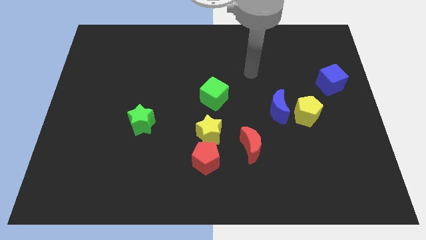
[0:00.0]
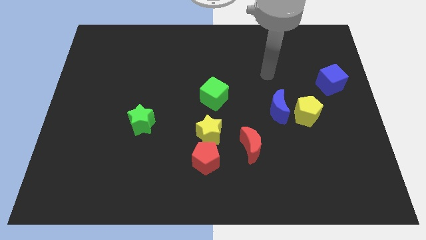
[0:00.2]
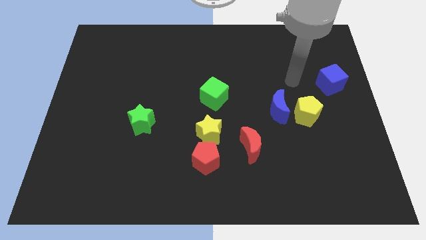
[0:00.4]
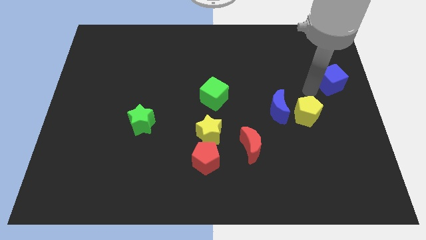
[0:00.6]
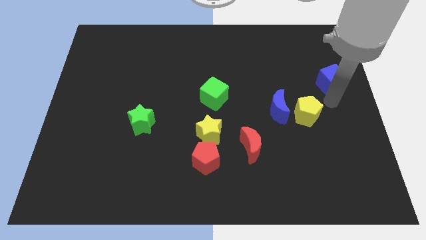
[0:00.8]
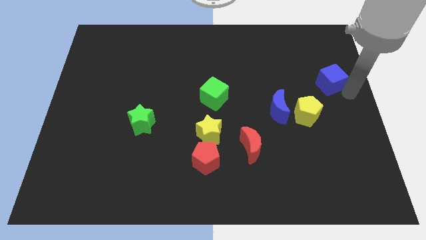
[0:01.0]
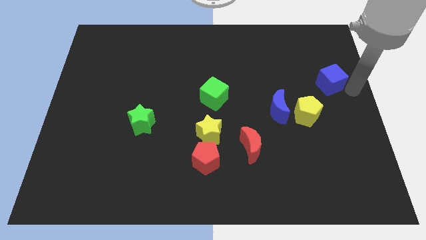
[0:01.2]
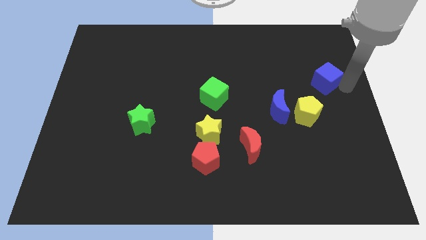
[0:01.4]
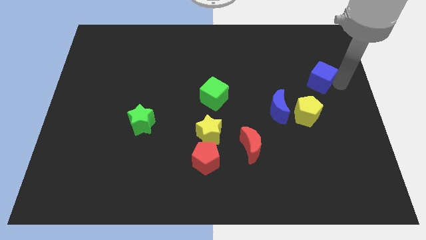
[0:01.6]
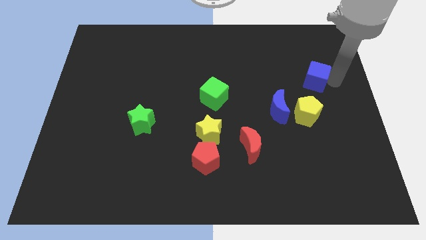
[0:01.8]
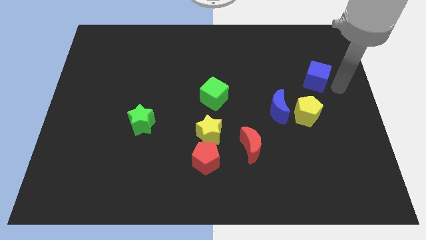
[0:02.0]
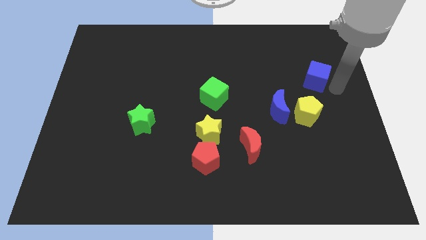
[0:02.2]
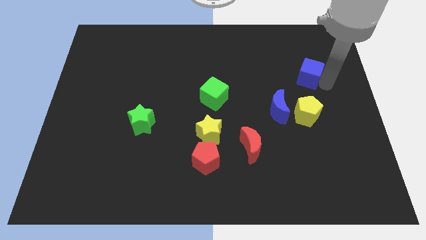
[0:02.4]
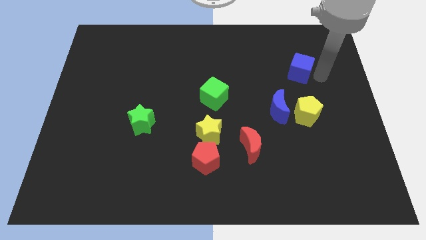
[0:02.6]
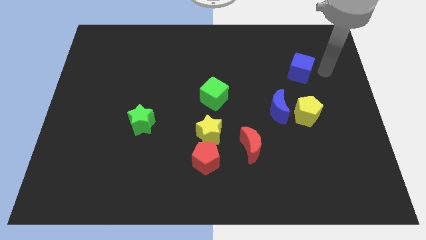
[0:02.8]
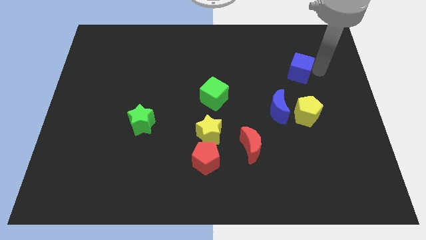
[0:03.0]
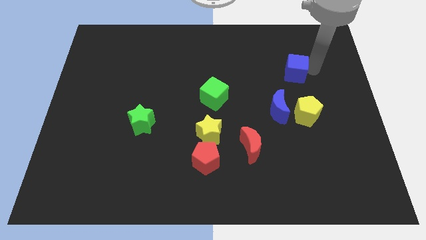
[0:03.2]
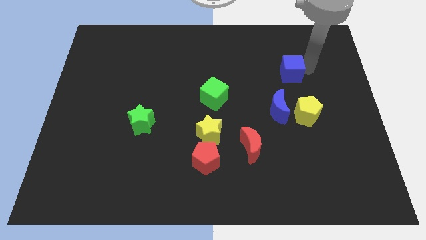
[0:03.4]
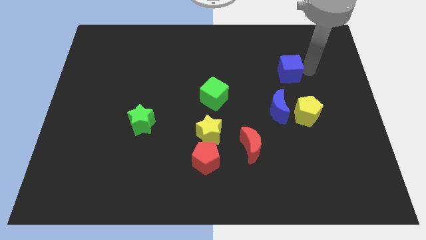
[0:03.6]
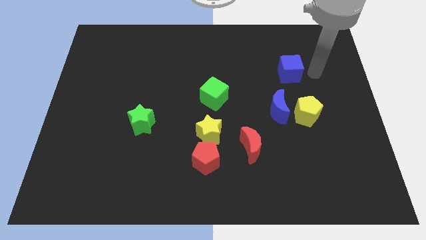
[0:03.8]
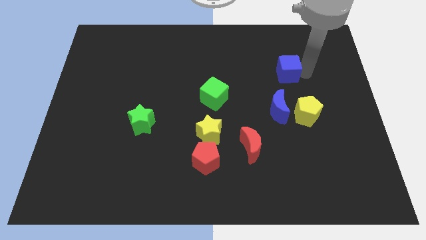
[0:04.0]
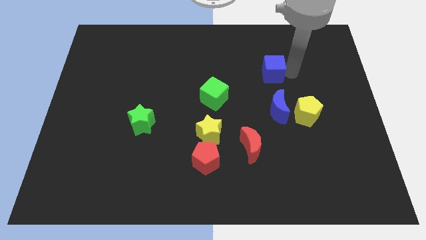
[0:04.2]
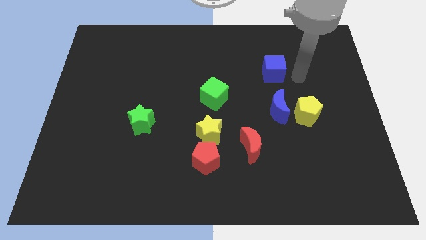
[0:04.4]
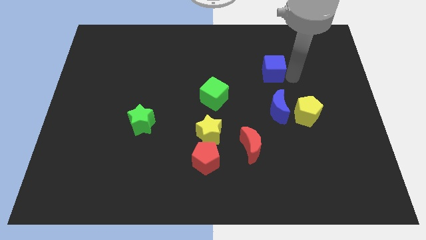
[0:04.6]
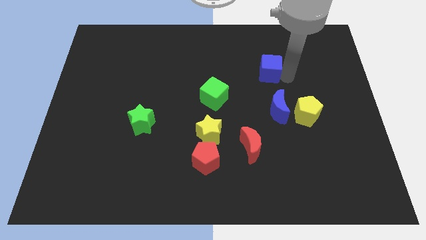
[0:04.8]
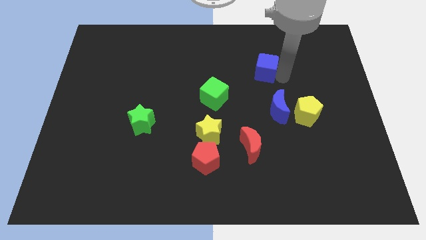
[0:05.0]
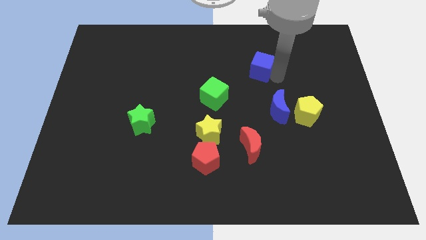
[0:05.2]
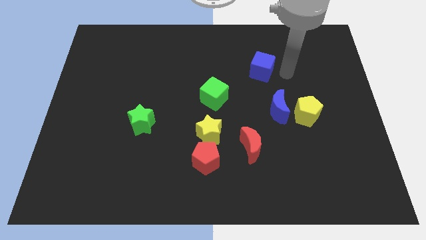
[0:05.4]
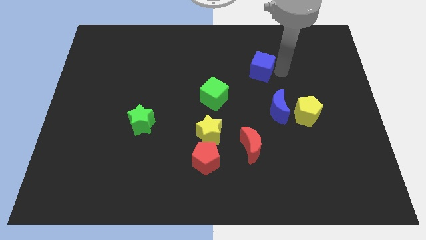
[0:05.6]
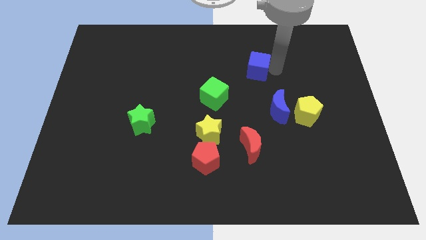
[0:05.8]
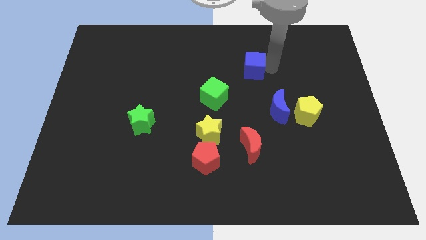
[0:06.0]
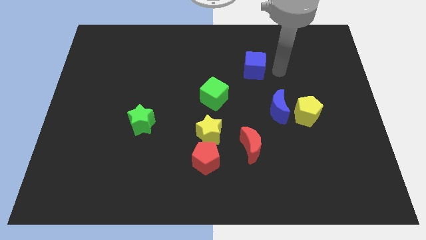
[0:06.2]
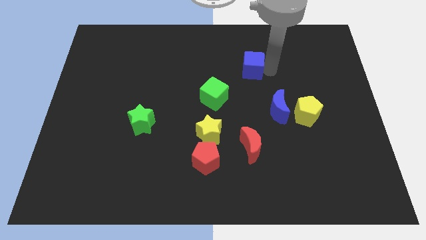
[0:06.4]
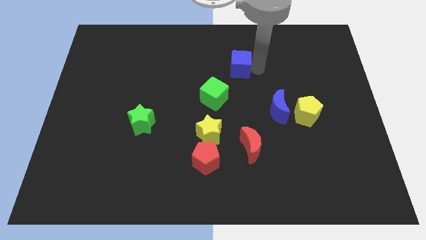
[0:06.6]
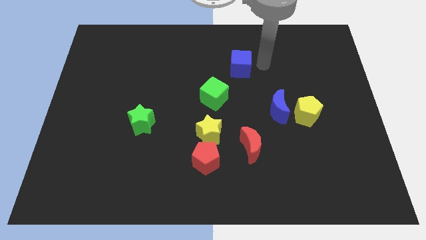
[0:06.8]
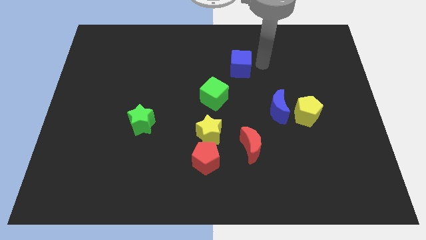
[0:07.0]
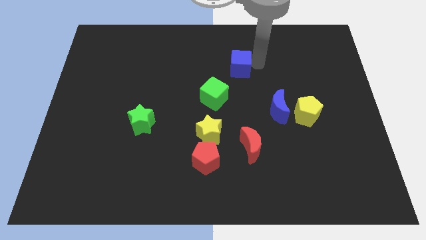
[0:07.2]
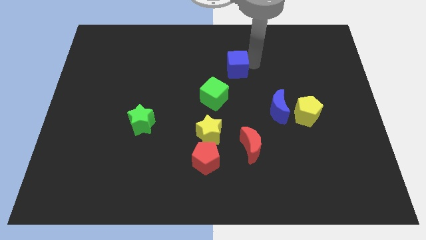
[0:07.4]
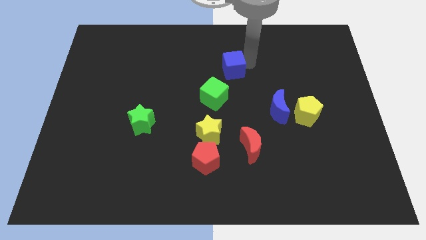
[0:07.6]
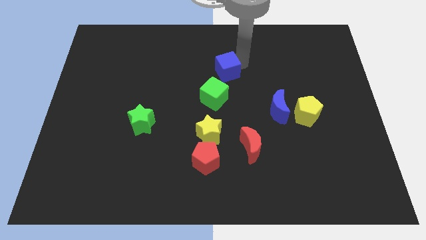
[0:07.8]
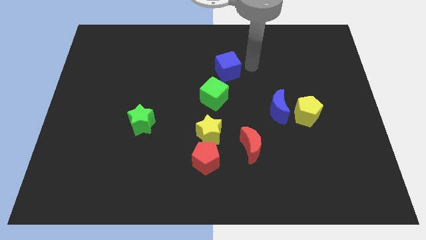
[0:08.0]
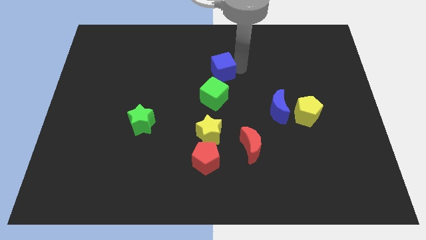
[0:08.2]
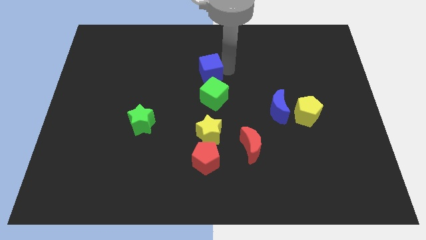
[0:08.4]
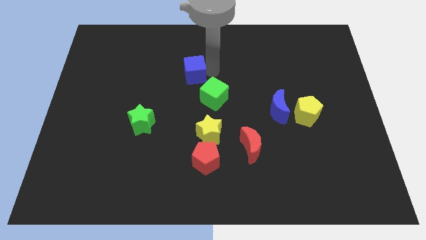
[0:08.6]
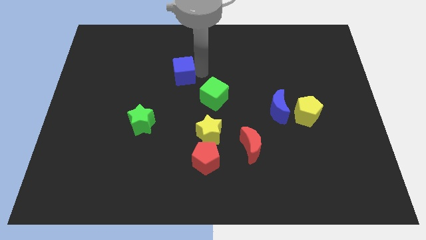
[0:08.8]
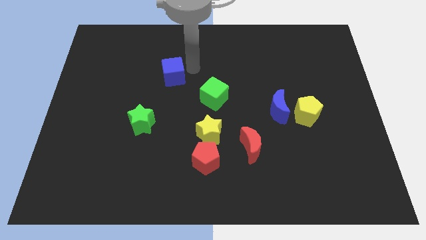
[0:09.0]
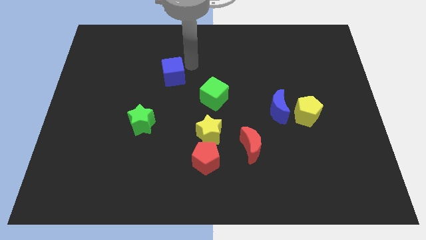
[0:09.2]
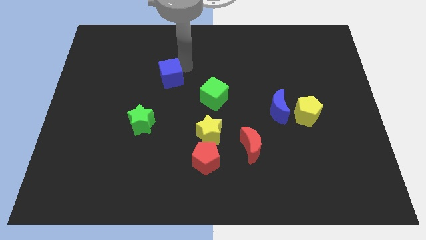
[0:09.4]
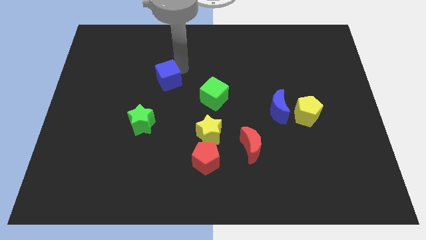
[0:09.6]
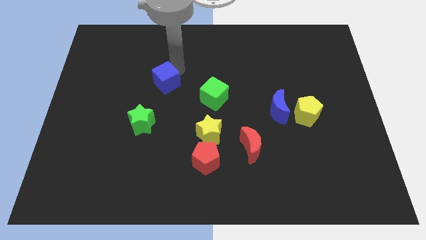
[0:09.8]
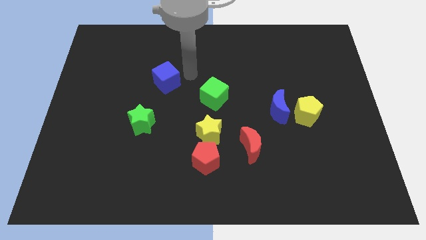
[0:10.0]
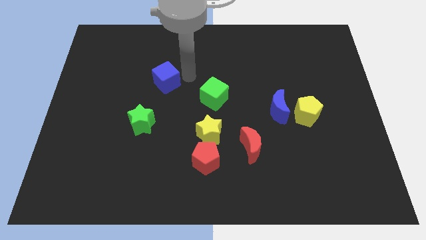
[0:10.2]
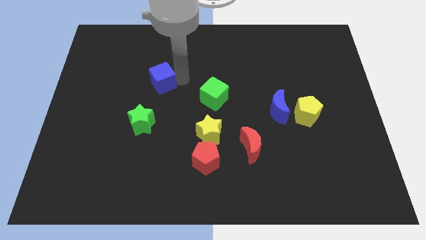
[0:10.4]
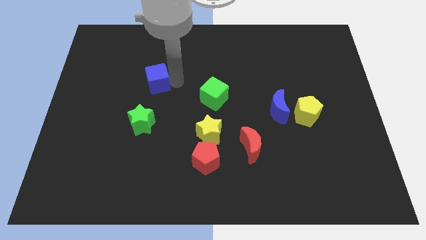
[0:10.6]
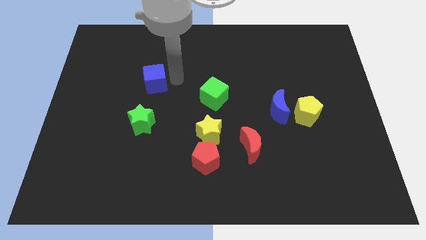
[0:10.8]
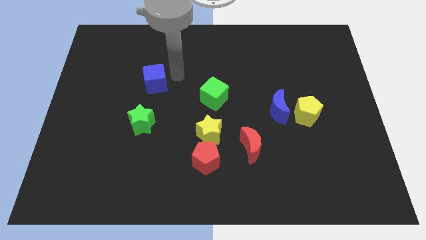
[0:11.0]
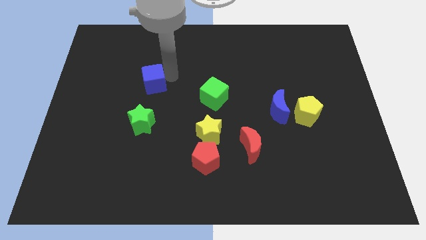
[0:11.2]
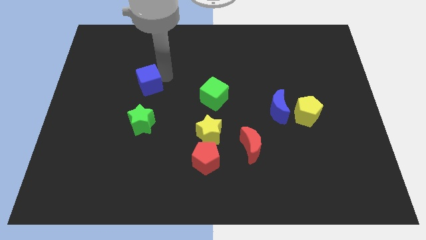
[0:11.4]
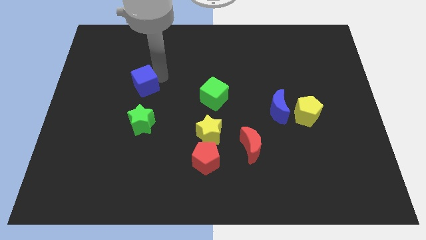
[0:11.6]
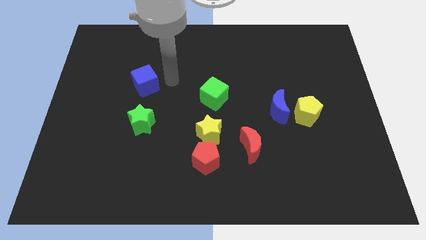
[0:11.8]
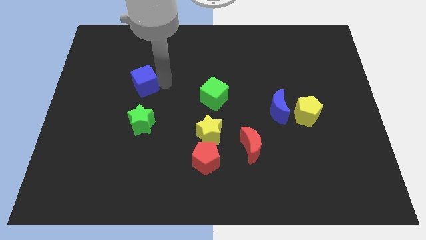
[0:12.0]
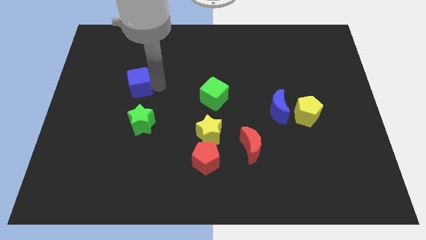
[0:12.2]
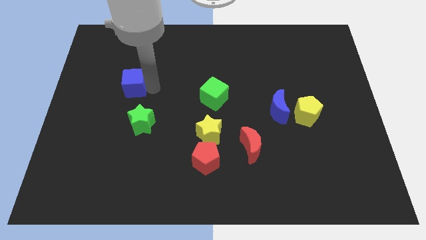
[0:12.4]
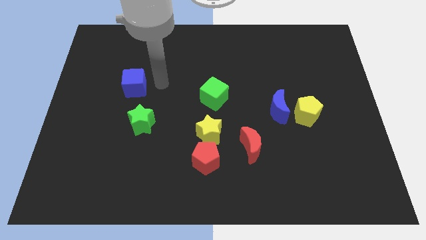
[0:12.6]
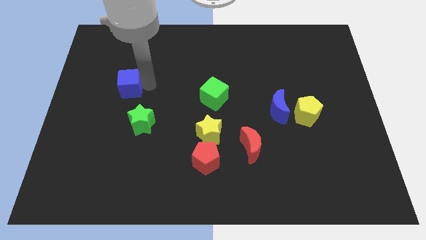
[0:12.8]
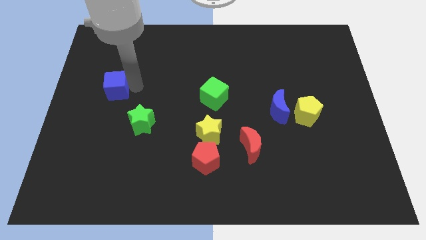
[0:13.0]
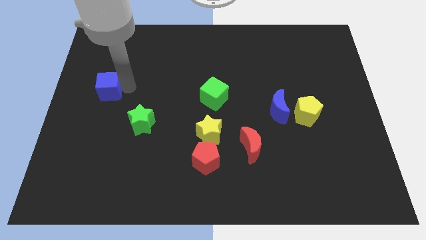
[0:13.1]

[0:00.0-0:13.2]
move the blue cube to the center left
